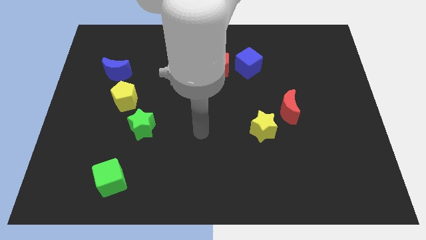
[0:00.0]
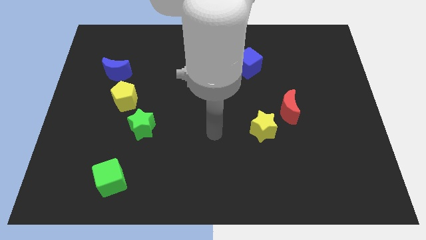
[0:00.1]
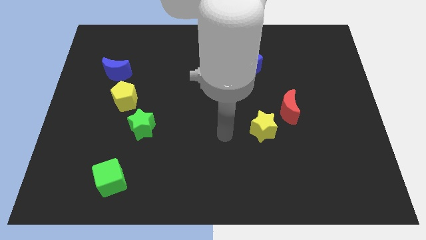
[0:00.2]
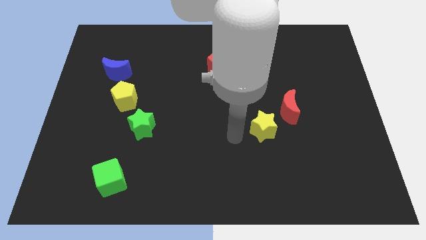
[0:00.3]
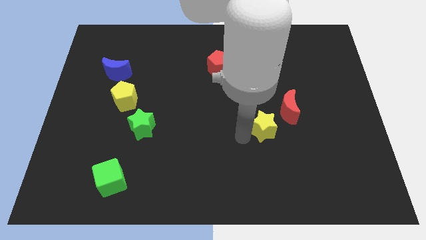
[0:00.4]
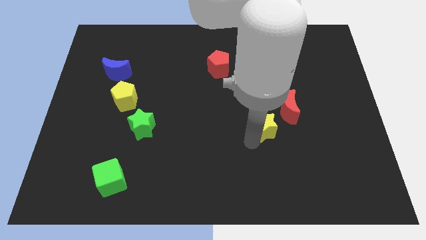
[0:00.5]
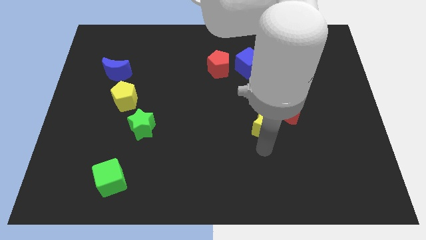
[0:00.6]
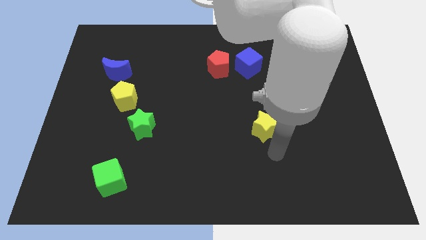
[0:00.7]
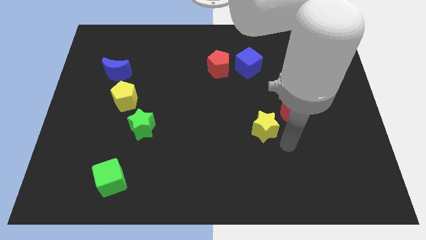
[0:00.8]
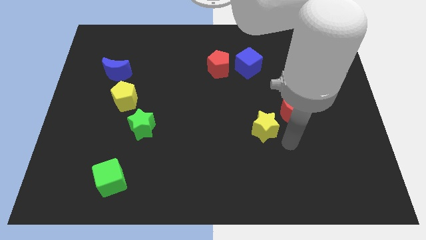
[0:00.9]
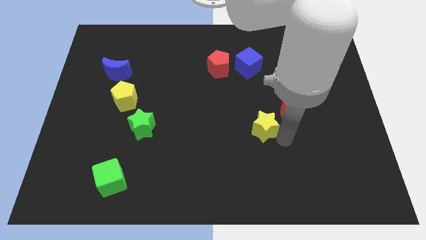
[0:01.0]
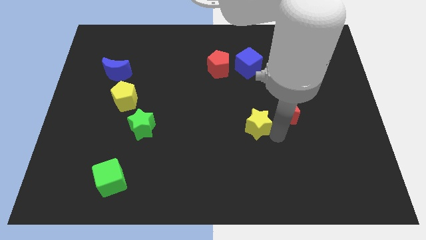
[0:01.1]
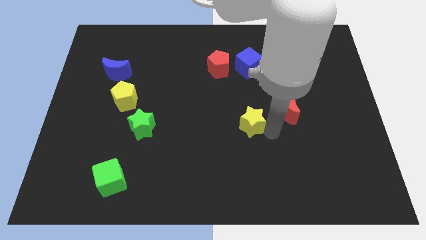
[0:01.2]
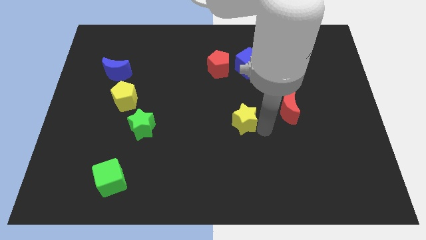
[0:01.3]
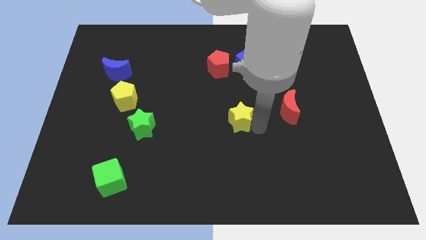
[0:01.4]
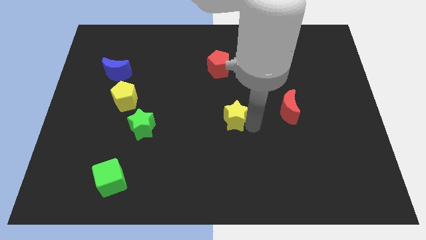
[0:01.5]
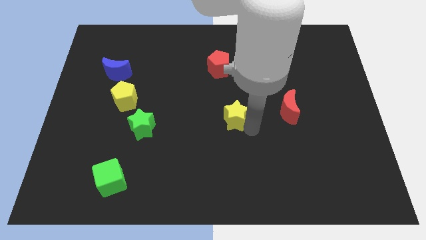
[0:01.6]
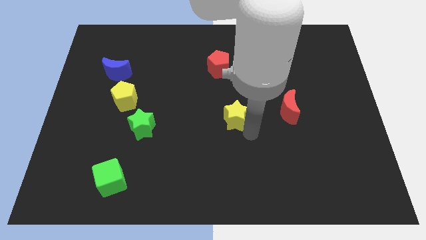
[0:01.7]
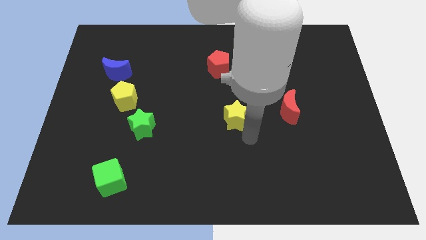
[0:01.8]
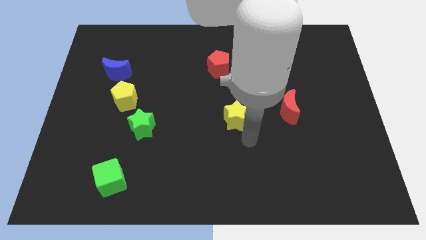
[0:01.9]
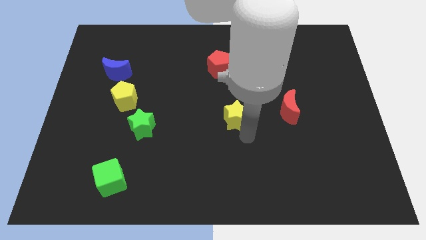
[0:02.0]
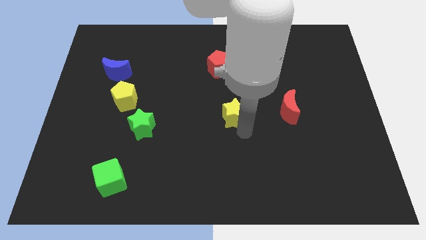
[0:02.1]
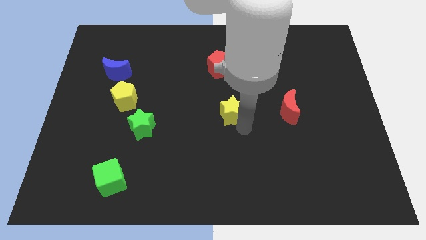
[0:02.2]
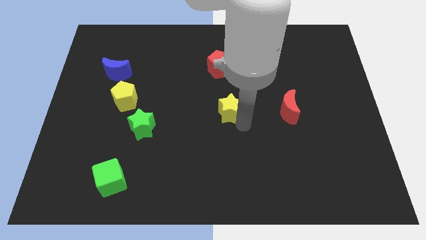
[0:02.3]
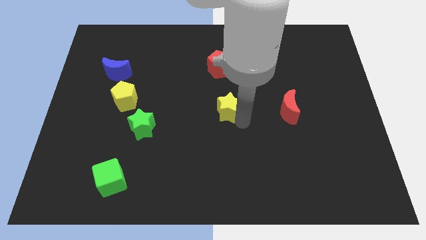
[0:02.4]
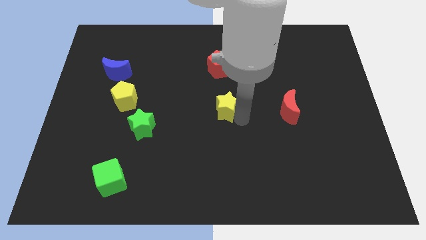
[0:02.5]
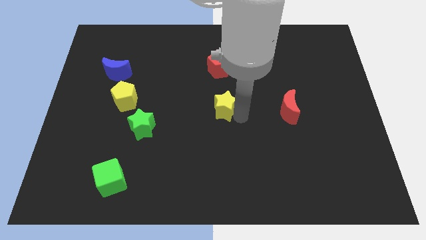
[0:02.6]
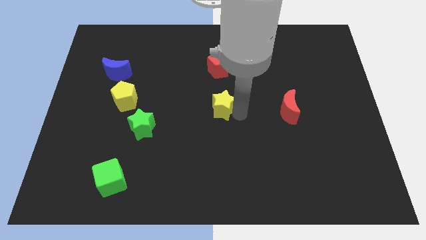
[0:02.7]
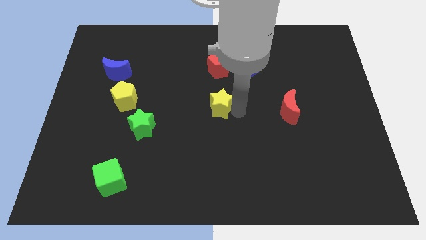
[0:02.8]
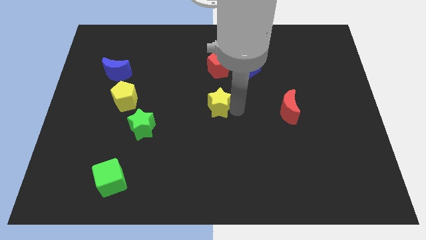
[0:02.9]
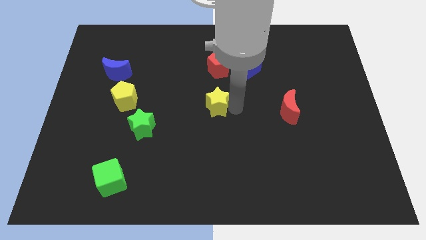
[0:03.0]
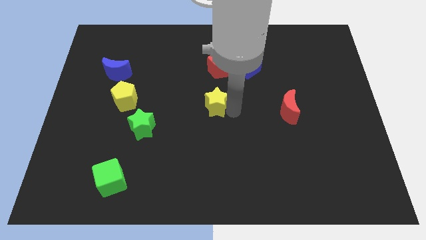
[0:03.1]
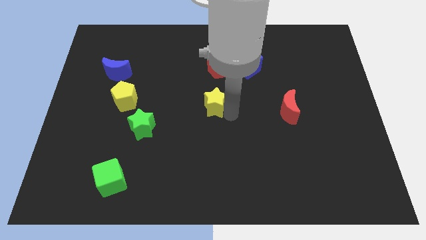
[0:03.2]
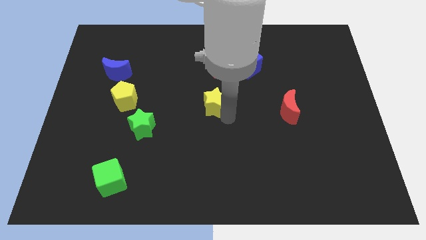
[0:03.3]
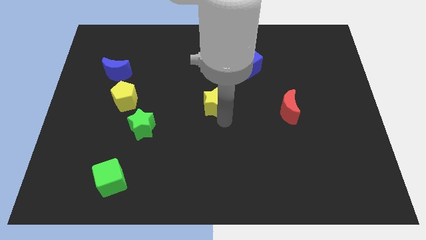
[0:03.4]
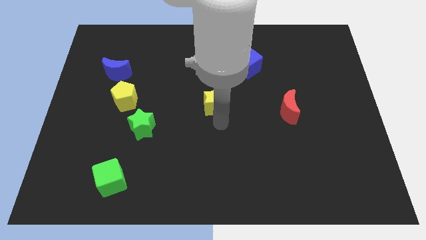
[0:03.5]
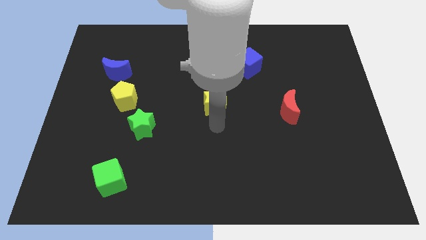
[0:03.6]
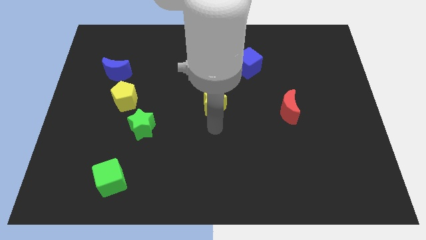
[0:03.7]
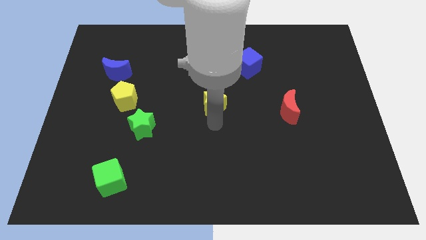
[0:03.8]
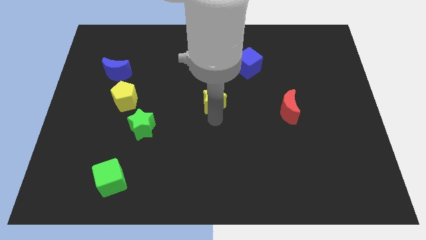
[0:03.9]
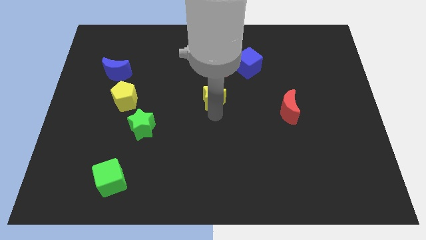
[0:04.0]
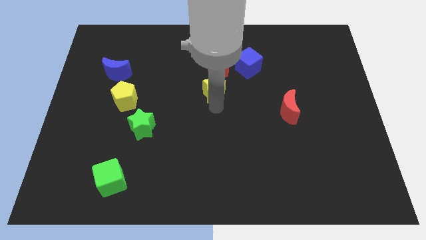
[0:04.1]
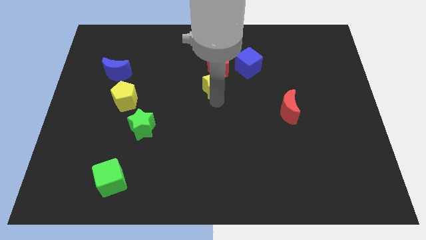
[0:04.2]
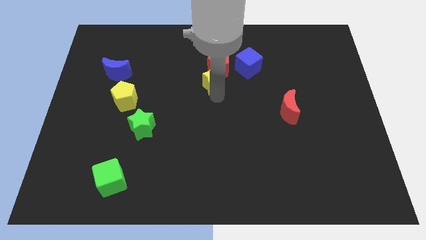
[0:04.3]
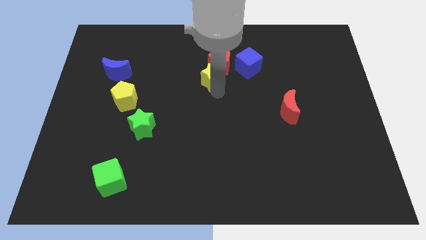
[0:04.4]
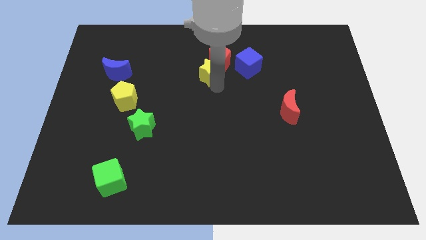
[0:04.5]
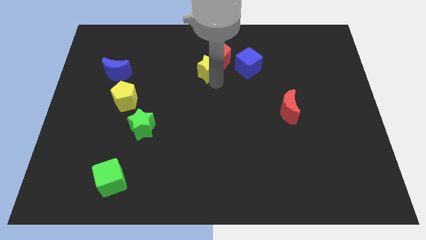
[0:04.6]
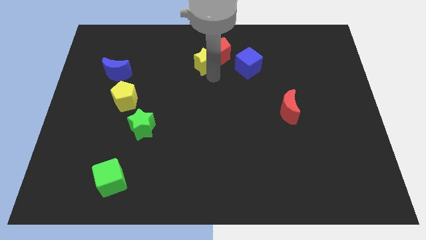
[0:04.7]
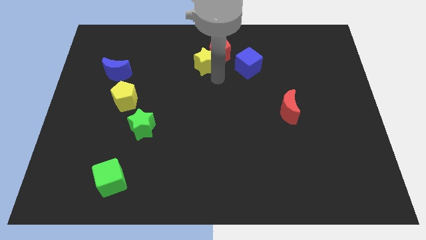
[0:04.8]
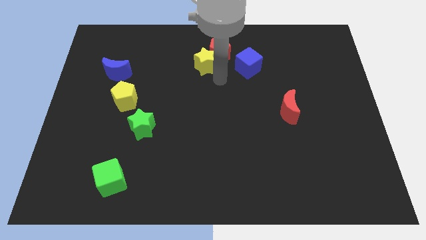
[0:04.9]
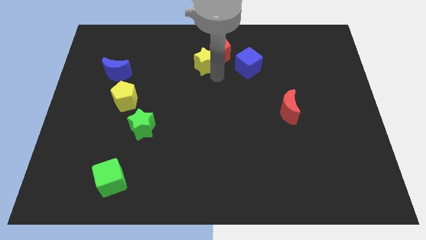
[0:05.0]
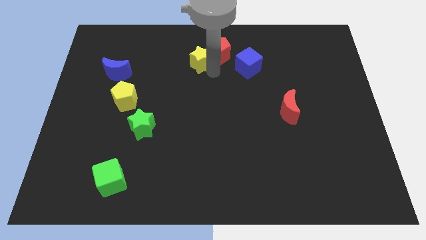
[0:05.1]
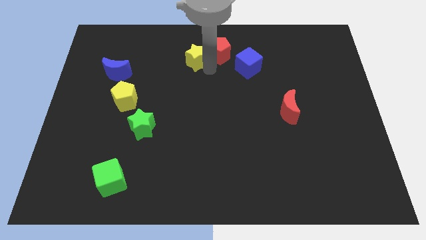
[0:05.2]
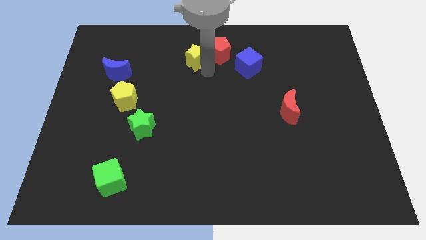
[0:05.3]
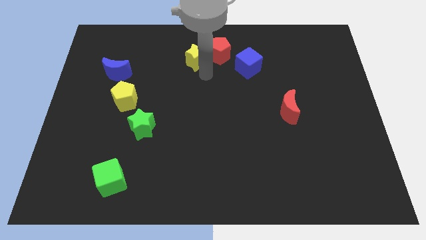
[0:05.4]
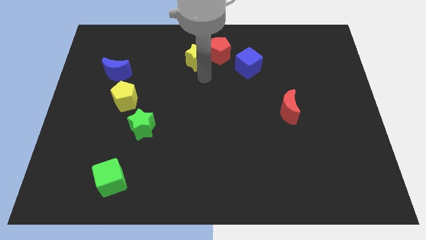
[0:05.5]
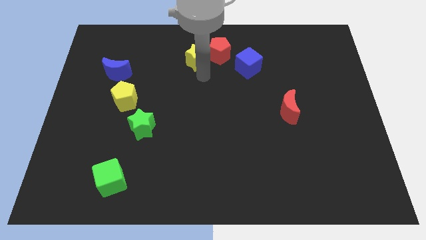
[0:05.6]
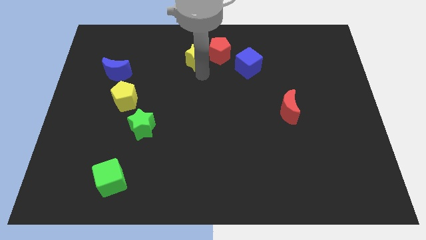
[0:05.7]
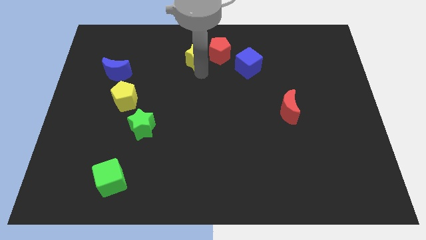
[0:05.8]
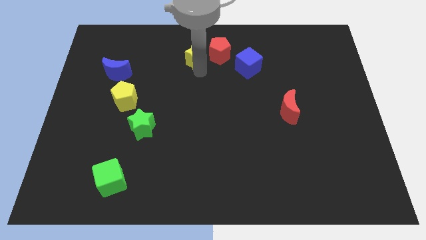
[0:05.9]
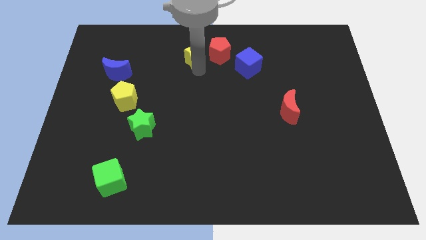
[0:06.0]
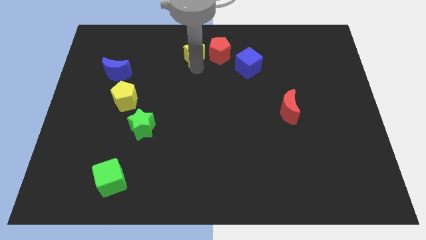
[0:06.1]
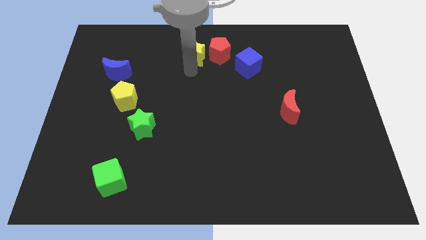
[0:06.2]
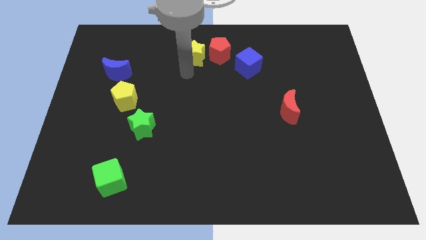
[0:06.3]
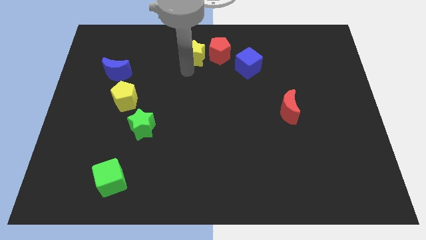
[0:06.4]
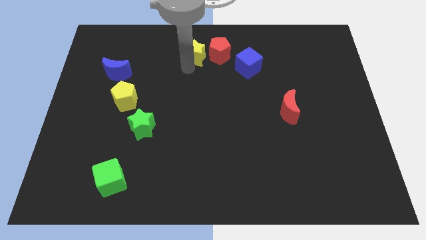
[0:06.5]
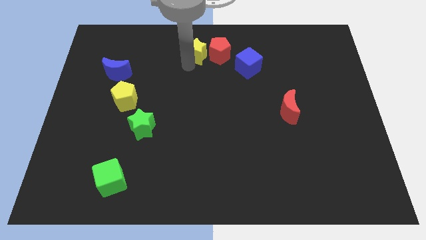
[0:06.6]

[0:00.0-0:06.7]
slide the yellow star to the top side

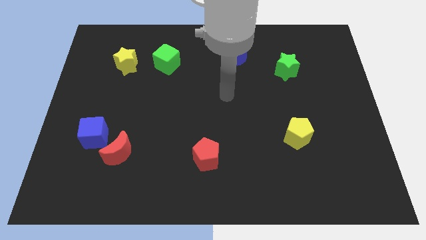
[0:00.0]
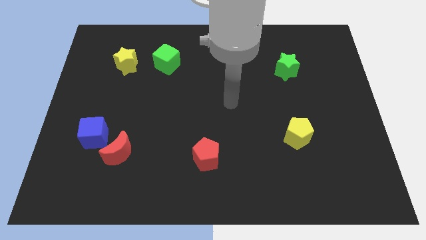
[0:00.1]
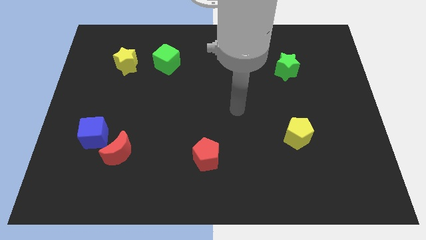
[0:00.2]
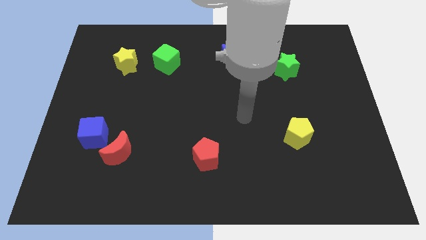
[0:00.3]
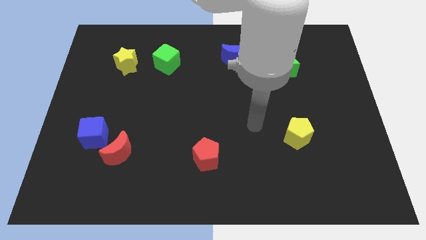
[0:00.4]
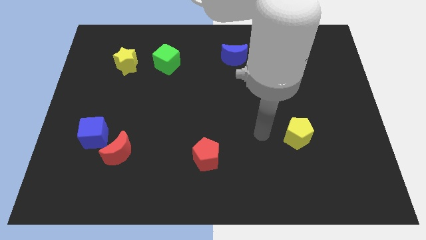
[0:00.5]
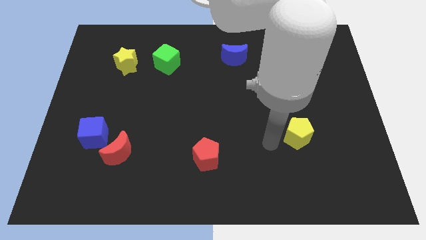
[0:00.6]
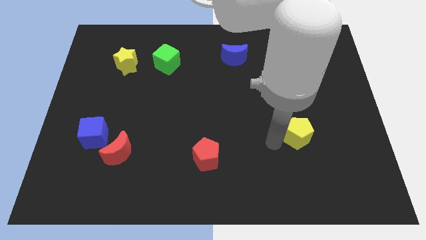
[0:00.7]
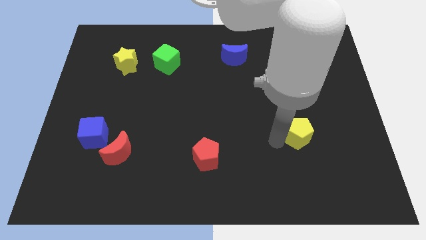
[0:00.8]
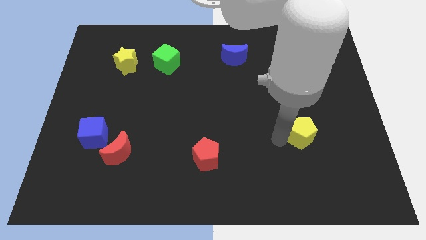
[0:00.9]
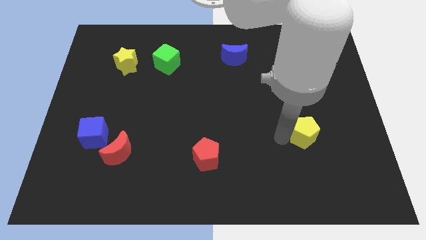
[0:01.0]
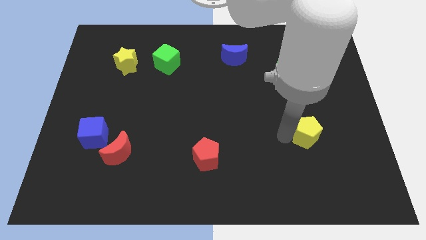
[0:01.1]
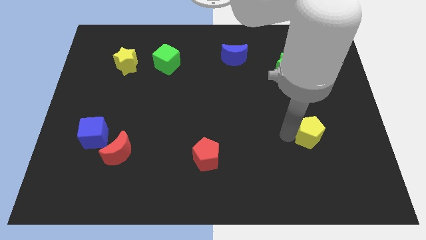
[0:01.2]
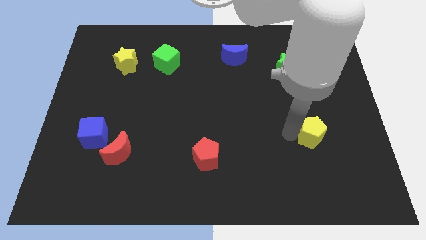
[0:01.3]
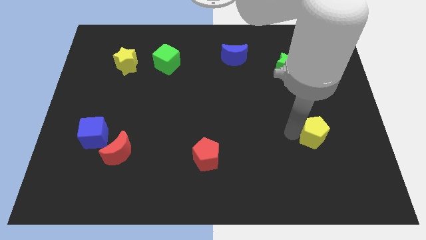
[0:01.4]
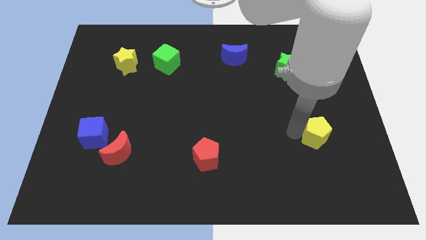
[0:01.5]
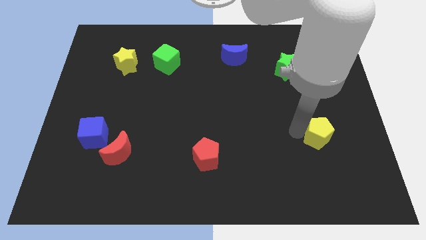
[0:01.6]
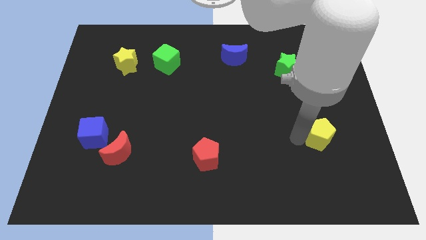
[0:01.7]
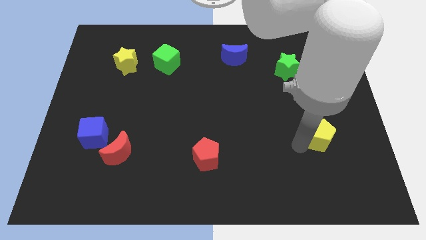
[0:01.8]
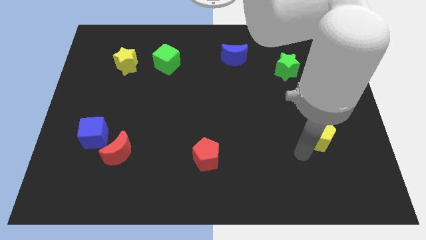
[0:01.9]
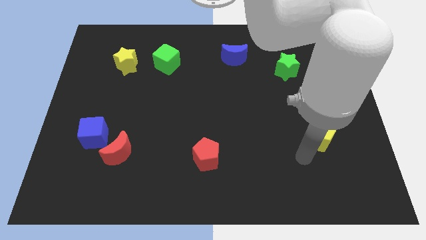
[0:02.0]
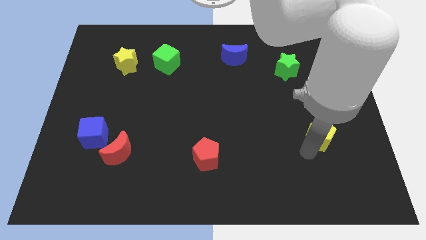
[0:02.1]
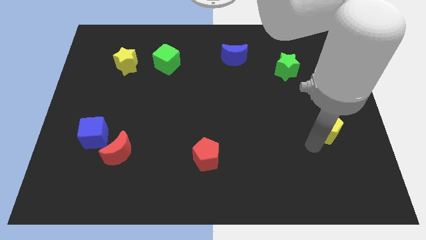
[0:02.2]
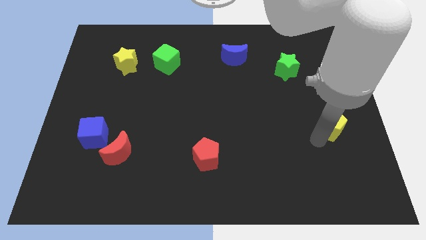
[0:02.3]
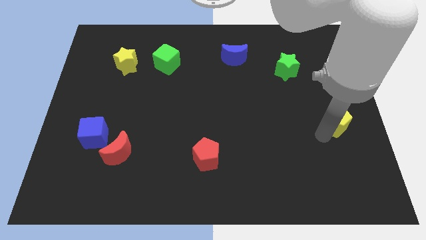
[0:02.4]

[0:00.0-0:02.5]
push the yellow pentagon to the center right
